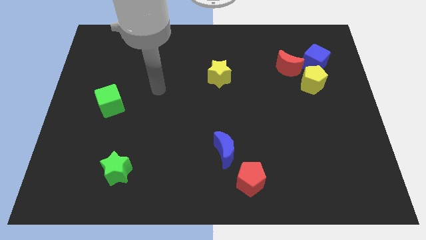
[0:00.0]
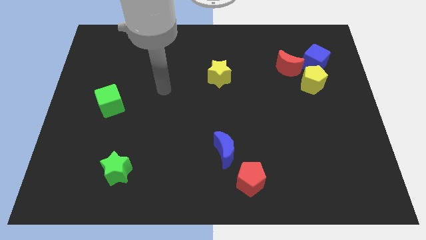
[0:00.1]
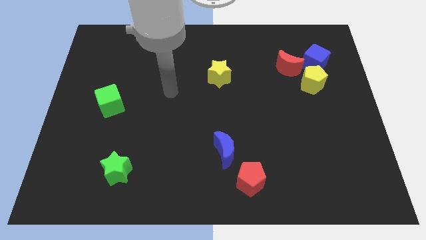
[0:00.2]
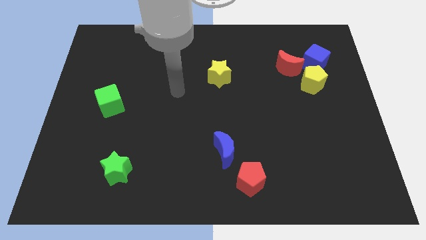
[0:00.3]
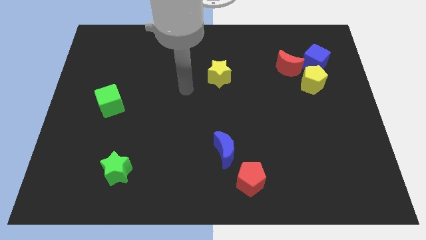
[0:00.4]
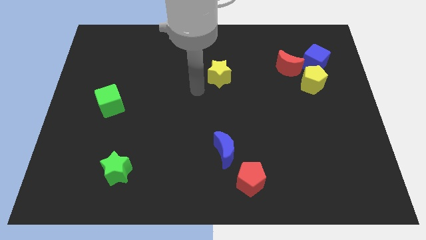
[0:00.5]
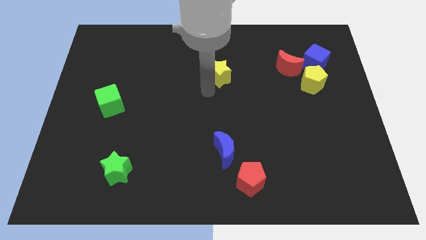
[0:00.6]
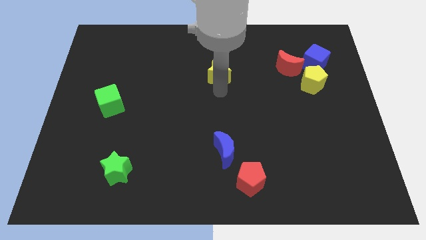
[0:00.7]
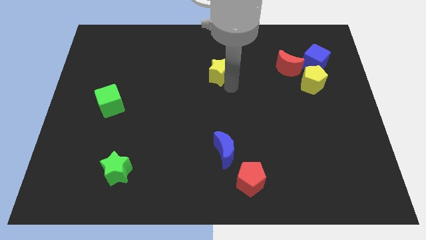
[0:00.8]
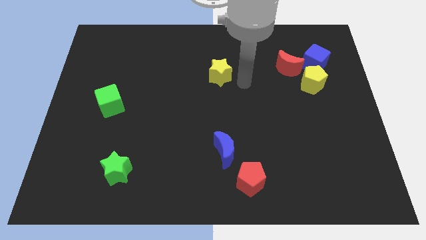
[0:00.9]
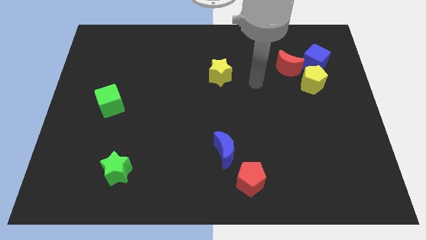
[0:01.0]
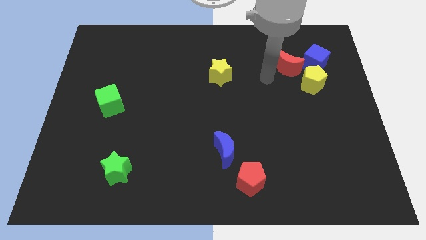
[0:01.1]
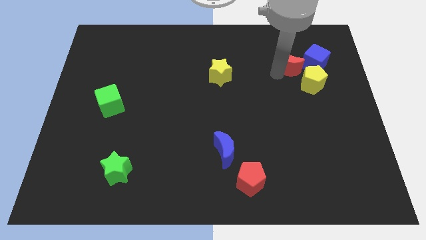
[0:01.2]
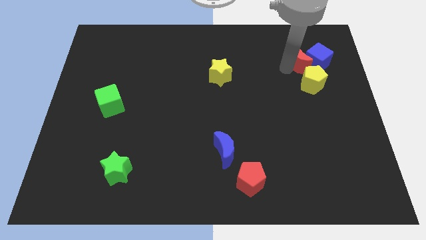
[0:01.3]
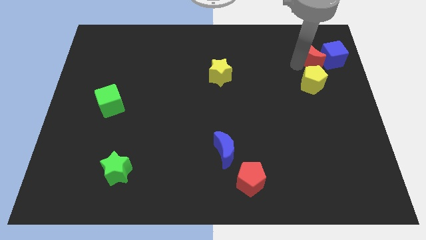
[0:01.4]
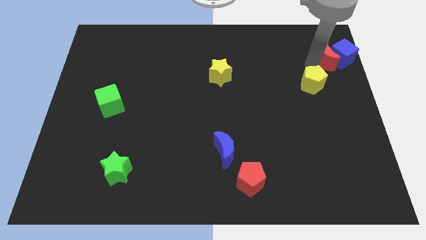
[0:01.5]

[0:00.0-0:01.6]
move the yellow pentagon away from the blue cube and red moon

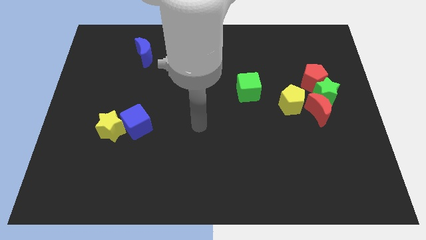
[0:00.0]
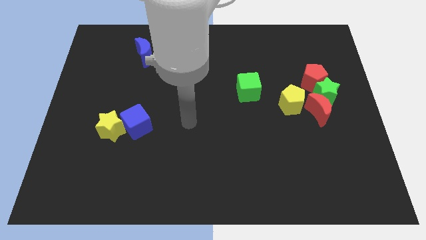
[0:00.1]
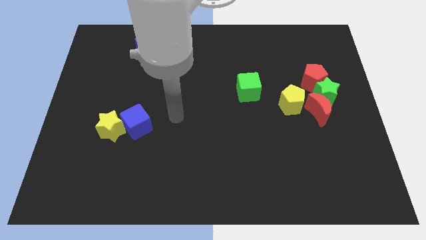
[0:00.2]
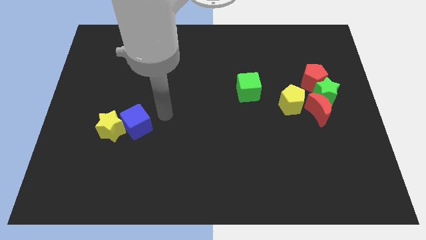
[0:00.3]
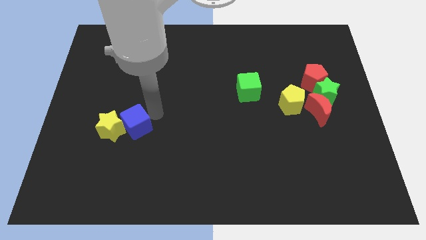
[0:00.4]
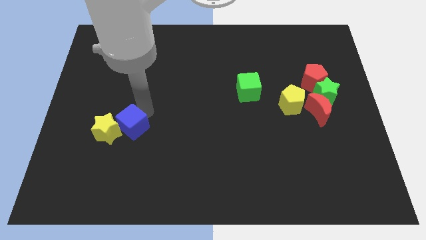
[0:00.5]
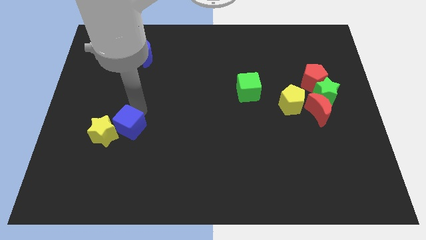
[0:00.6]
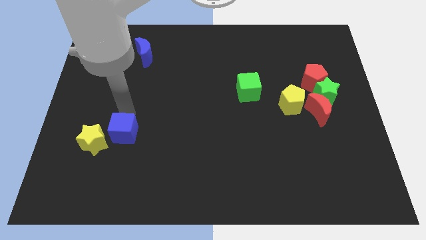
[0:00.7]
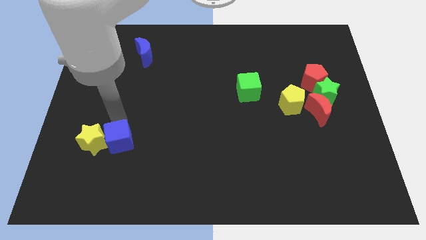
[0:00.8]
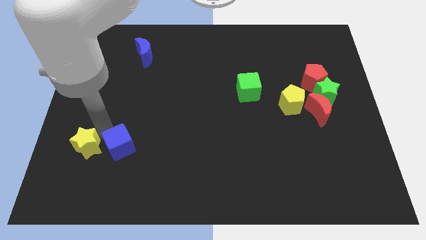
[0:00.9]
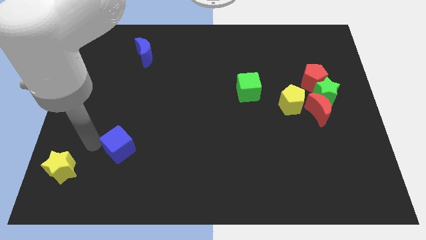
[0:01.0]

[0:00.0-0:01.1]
move the blue cube away from the yellow star

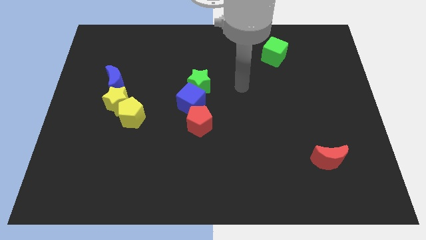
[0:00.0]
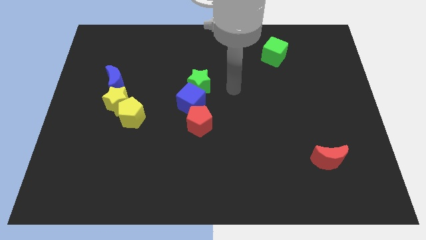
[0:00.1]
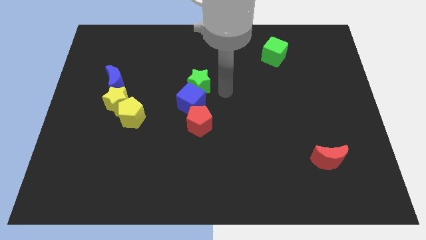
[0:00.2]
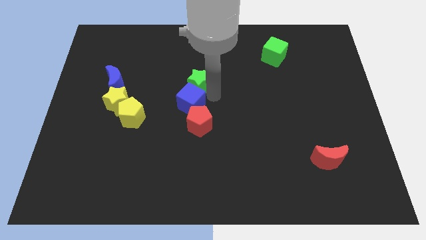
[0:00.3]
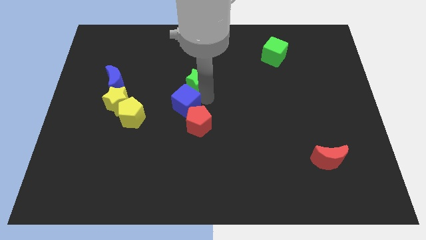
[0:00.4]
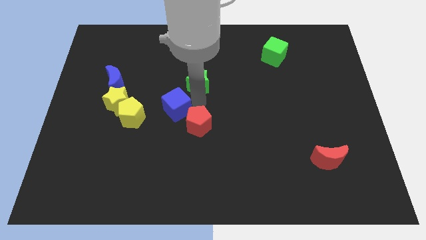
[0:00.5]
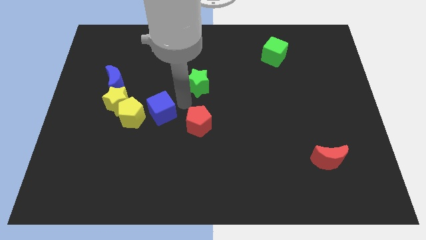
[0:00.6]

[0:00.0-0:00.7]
pull the green star apart from the blue cube

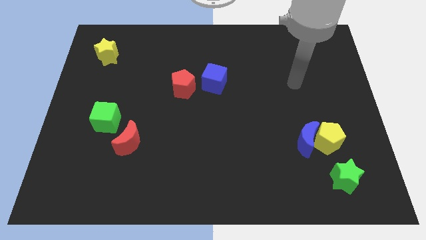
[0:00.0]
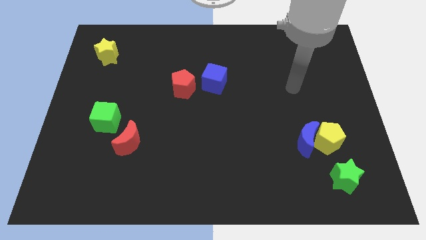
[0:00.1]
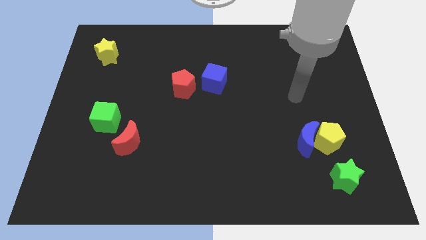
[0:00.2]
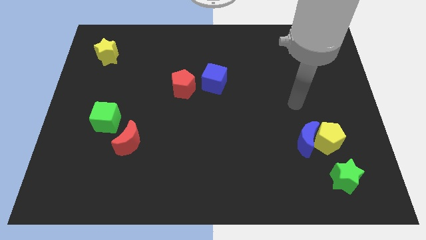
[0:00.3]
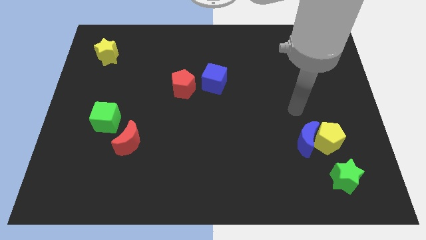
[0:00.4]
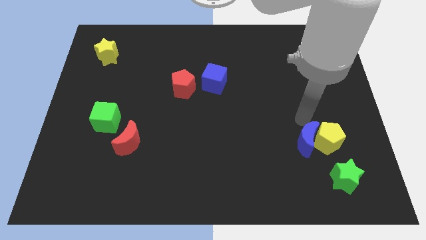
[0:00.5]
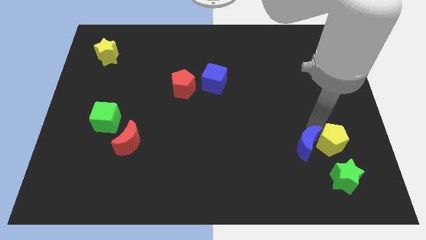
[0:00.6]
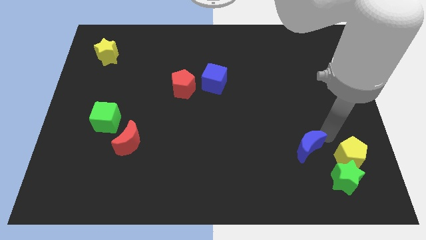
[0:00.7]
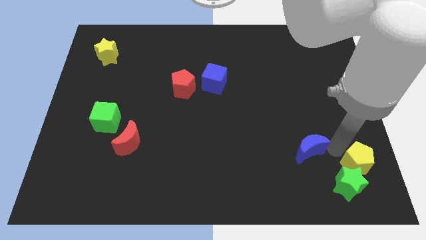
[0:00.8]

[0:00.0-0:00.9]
pull the blue moon apart from the yellow pentagon

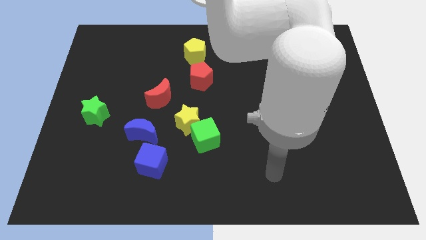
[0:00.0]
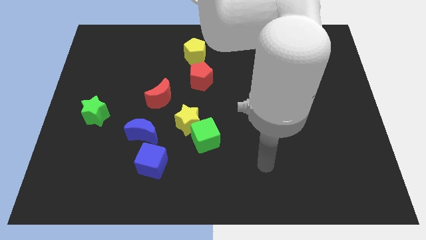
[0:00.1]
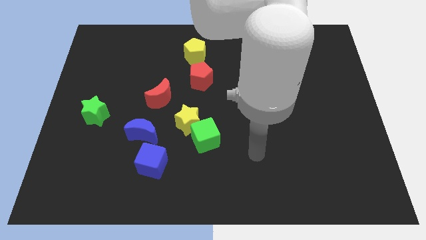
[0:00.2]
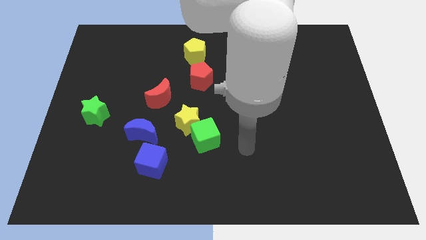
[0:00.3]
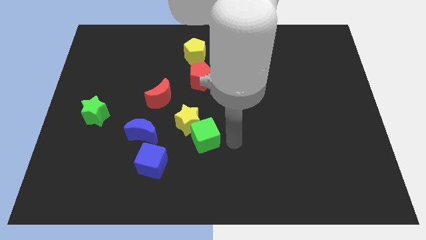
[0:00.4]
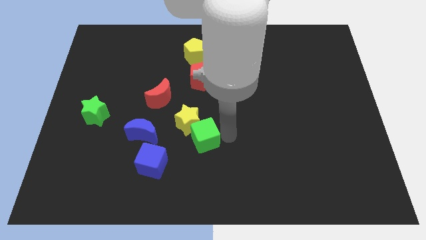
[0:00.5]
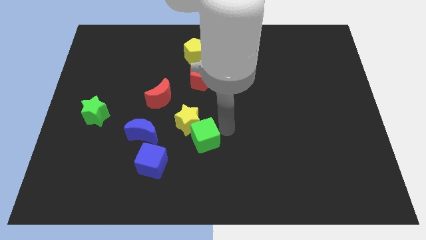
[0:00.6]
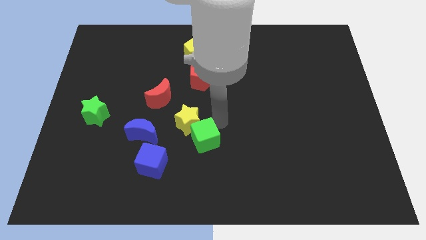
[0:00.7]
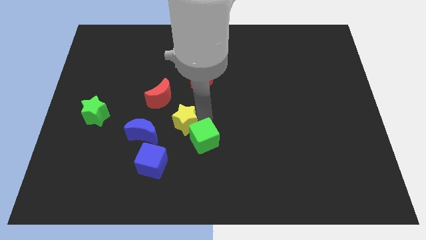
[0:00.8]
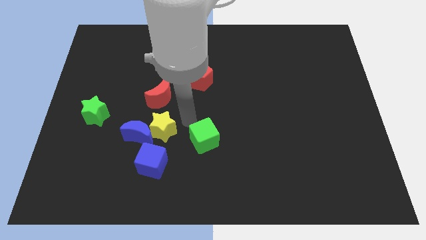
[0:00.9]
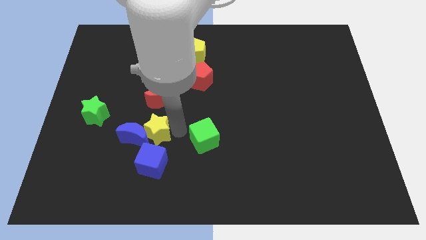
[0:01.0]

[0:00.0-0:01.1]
move the green cube away from the yellow star

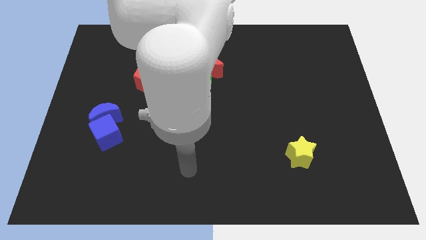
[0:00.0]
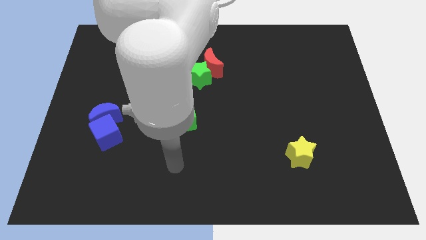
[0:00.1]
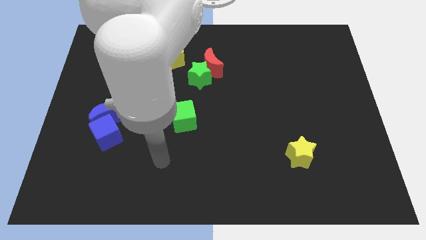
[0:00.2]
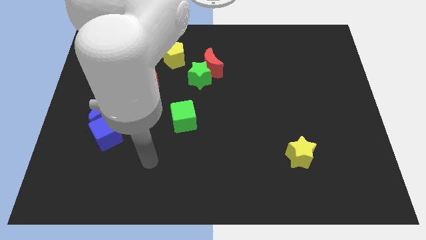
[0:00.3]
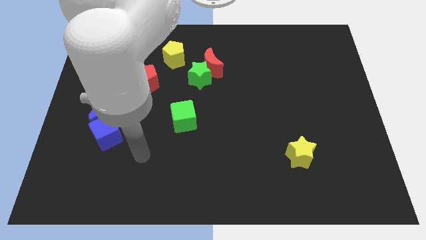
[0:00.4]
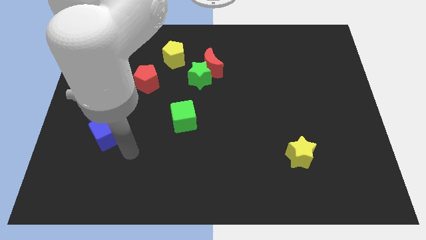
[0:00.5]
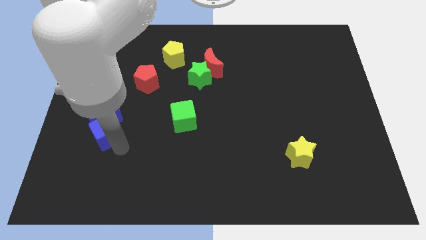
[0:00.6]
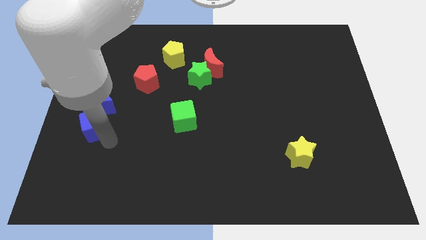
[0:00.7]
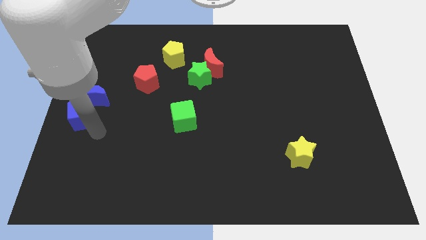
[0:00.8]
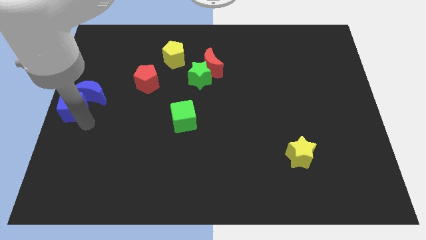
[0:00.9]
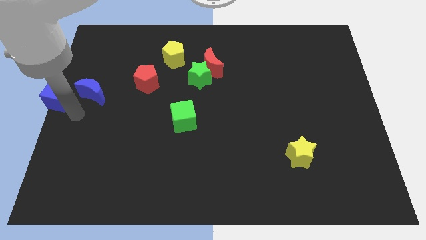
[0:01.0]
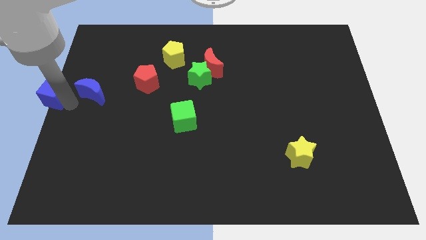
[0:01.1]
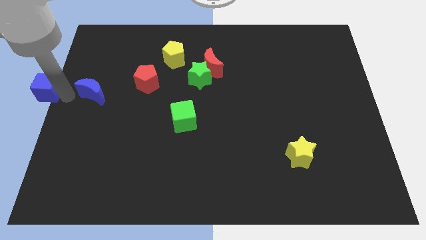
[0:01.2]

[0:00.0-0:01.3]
move the blue moon away from the blue cube

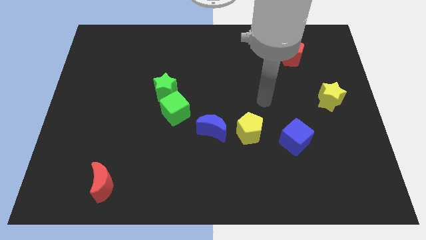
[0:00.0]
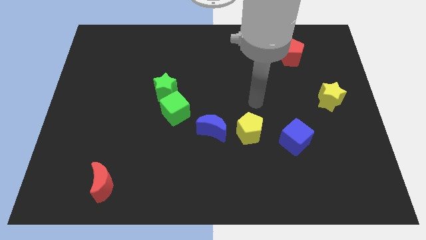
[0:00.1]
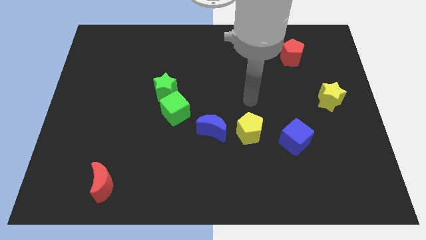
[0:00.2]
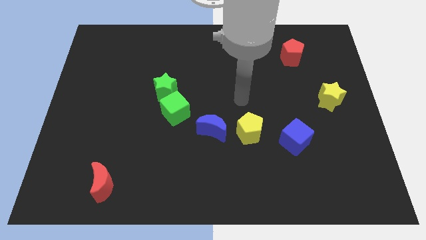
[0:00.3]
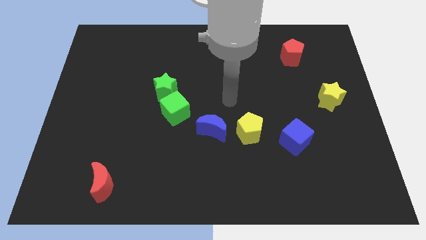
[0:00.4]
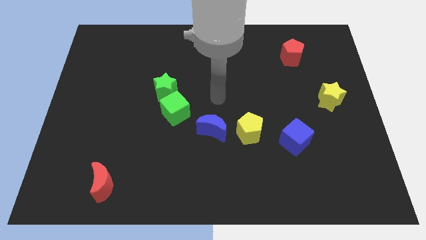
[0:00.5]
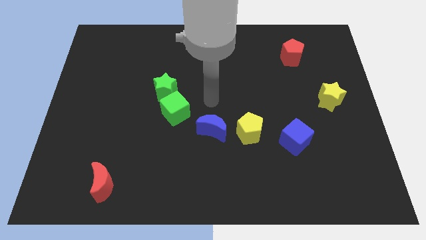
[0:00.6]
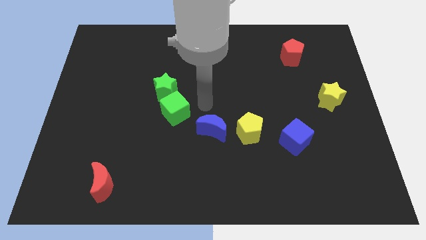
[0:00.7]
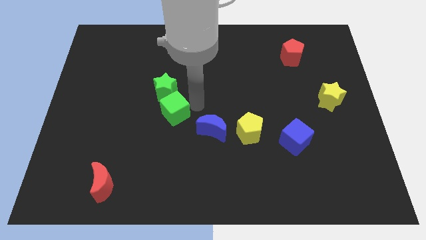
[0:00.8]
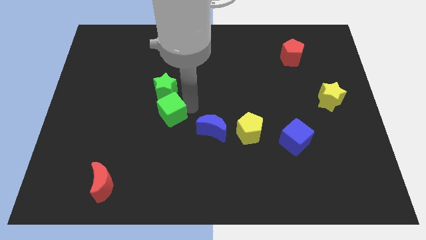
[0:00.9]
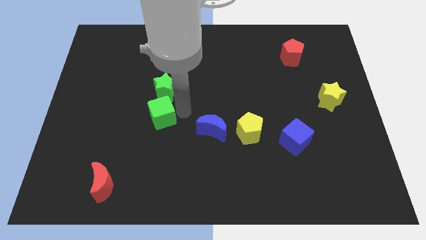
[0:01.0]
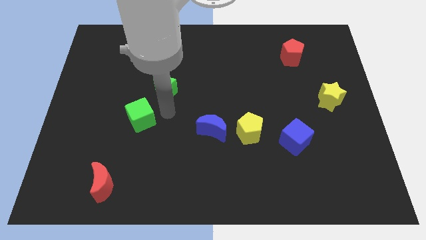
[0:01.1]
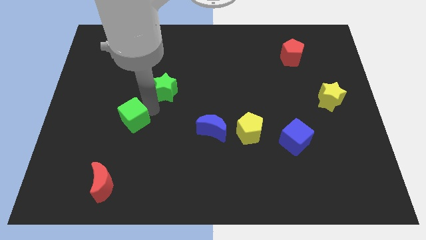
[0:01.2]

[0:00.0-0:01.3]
separate the green star from the green cube

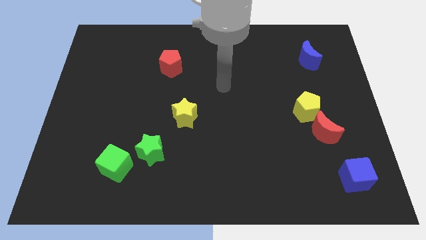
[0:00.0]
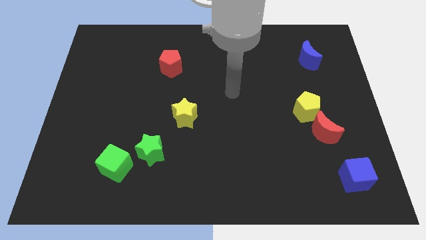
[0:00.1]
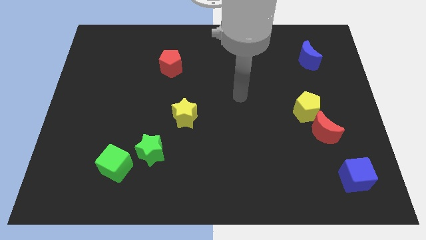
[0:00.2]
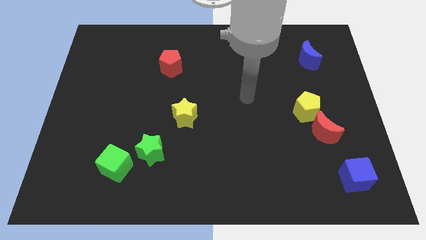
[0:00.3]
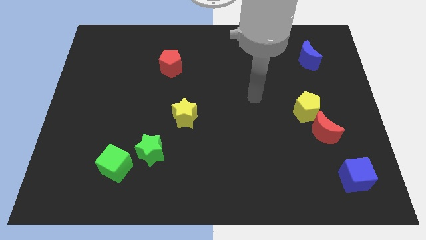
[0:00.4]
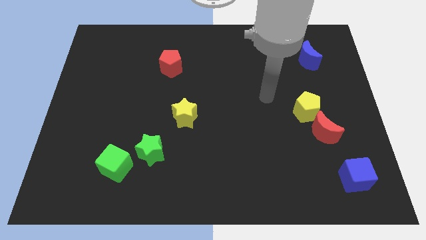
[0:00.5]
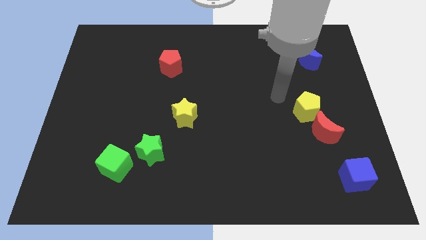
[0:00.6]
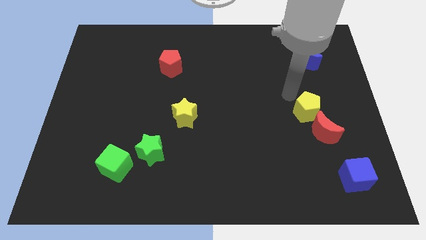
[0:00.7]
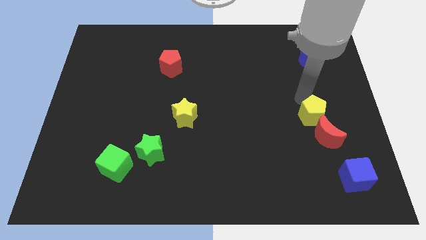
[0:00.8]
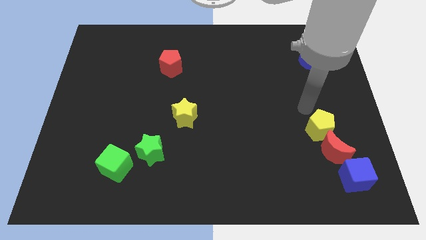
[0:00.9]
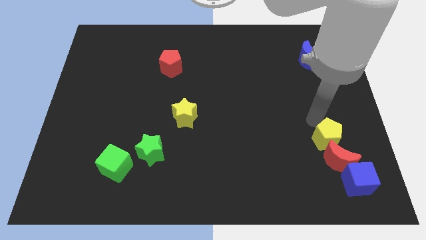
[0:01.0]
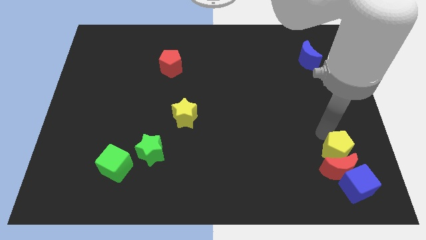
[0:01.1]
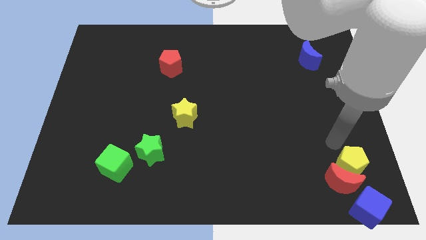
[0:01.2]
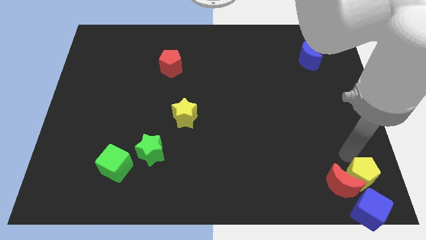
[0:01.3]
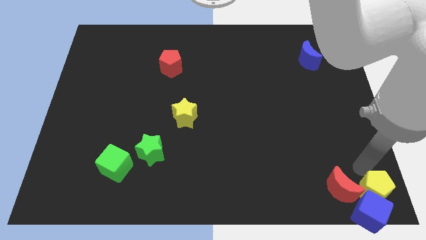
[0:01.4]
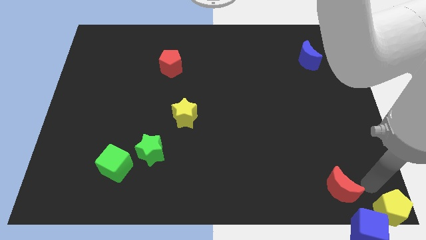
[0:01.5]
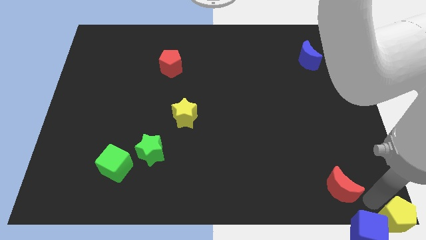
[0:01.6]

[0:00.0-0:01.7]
separate the red moon from the yellow pentagon
